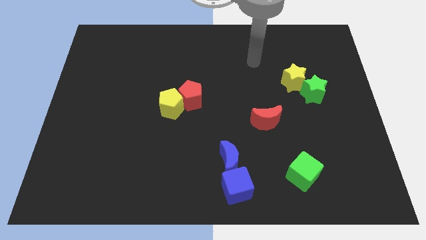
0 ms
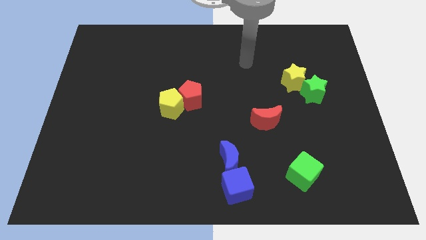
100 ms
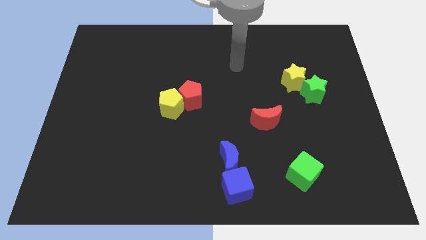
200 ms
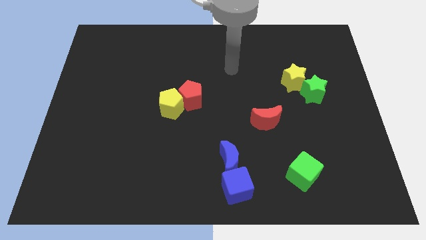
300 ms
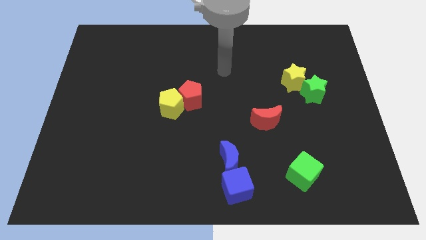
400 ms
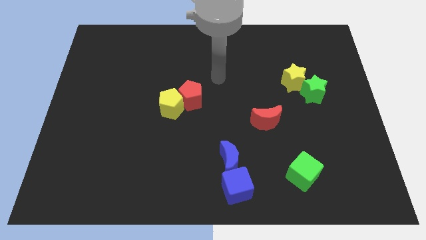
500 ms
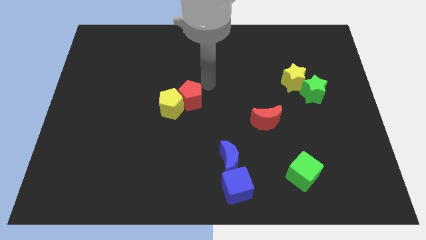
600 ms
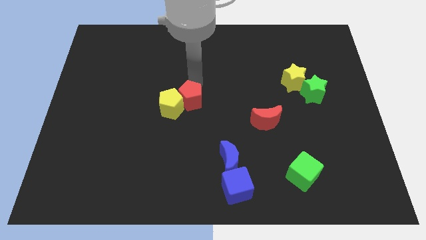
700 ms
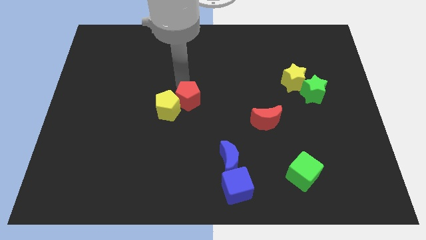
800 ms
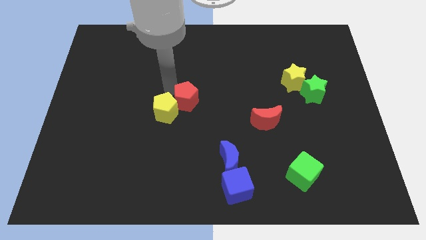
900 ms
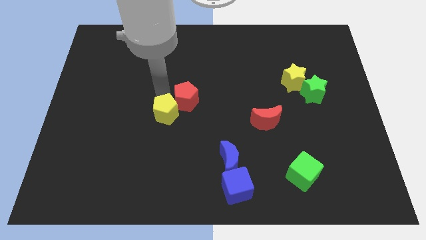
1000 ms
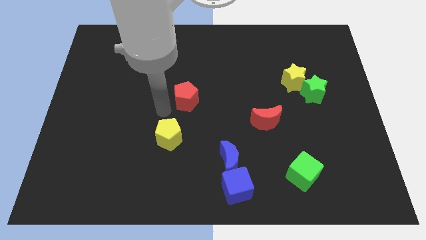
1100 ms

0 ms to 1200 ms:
pull the red pentagon apart from the yellow pentagon

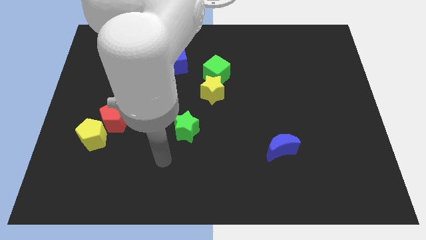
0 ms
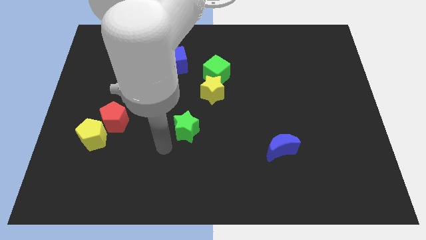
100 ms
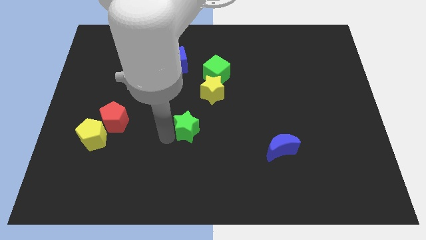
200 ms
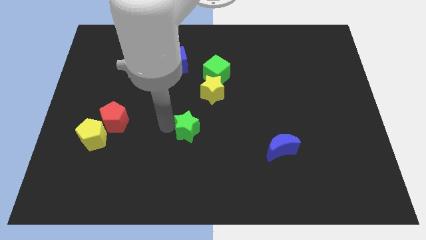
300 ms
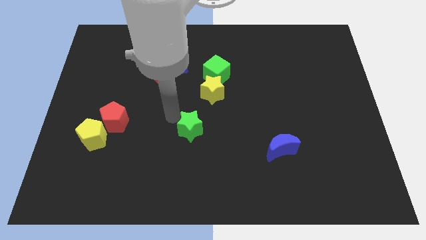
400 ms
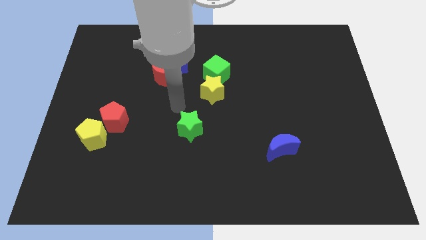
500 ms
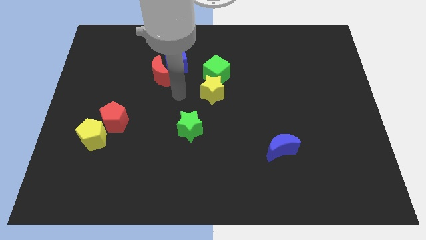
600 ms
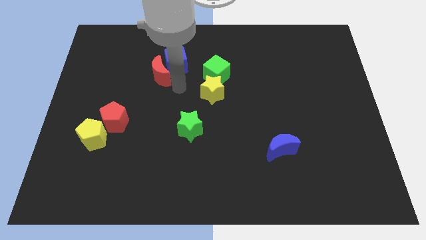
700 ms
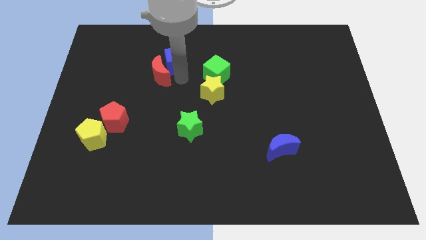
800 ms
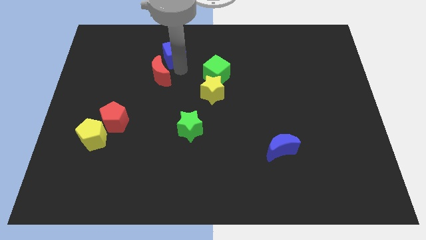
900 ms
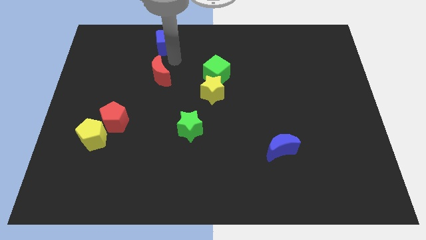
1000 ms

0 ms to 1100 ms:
pull the red moon apart from the blue cube

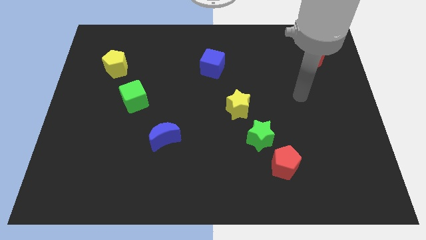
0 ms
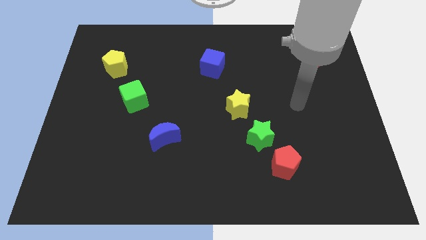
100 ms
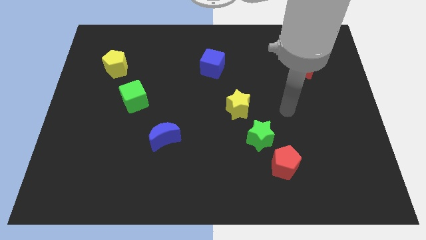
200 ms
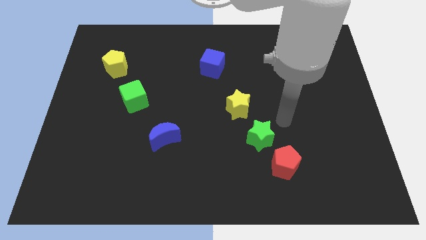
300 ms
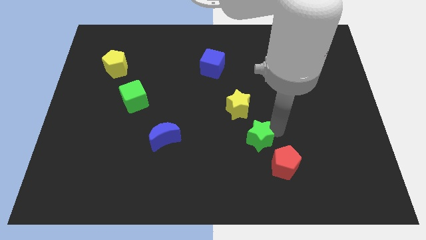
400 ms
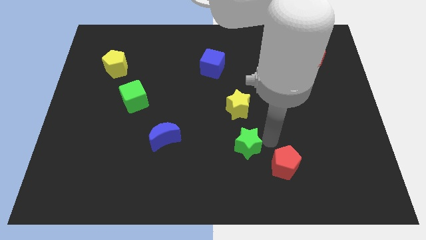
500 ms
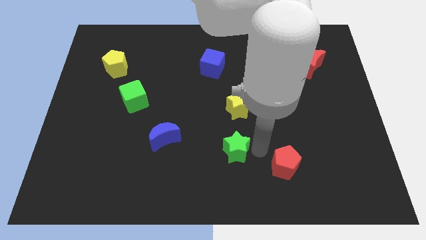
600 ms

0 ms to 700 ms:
separate the red pentagon from the green star

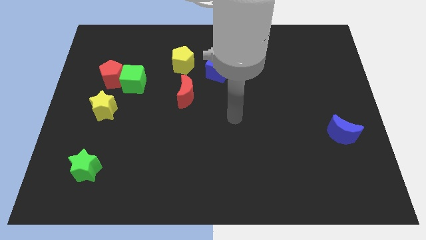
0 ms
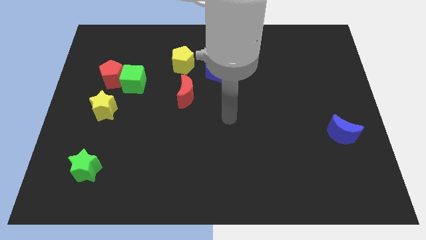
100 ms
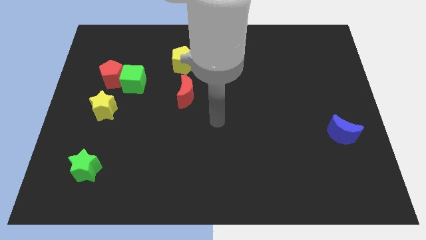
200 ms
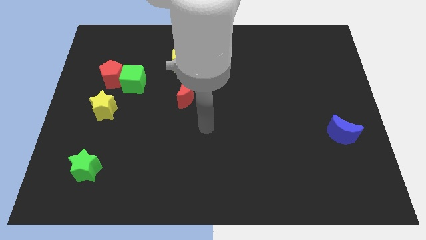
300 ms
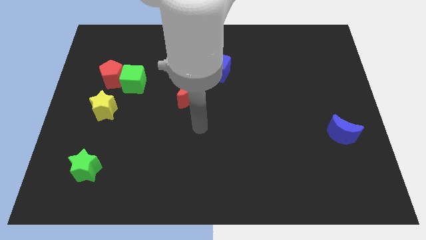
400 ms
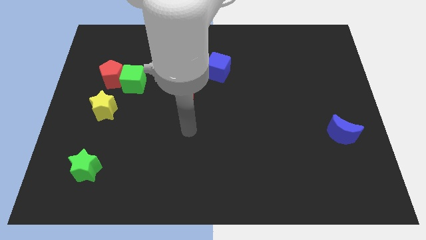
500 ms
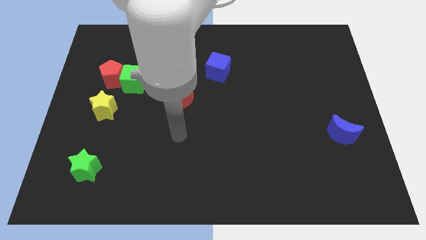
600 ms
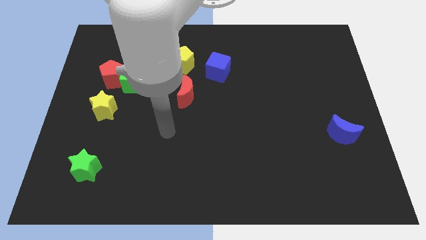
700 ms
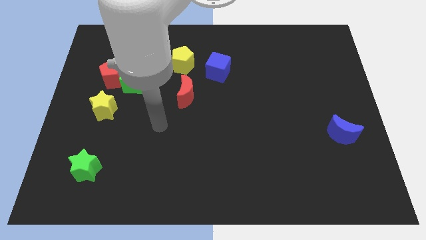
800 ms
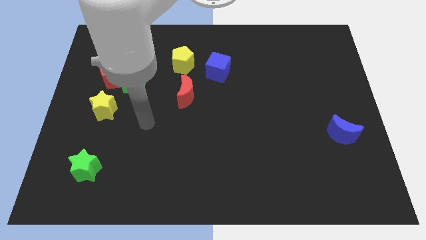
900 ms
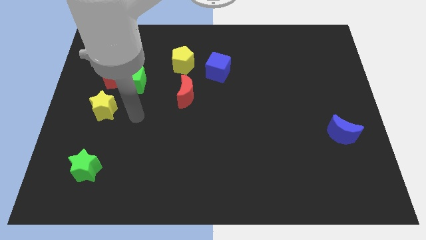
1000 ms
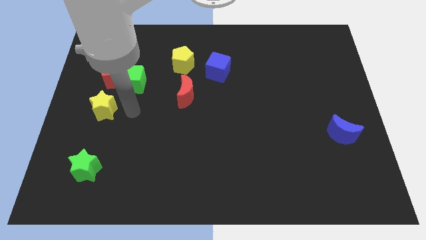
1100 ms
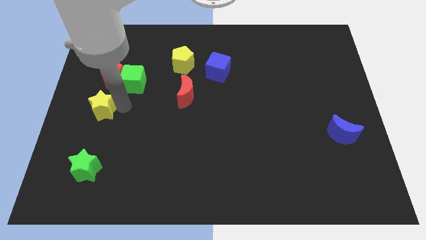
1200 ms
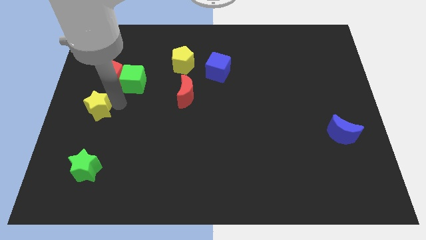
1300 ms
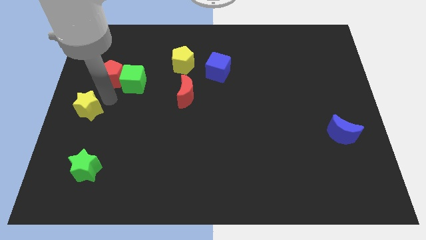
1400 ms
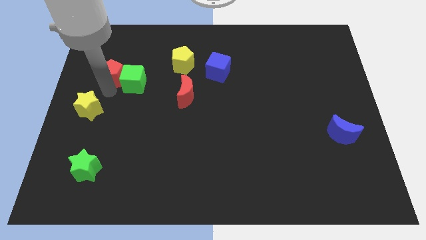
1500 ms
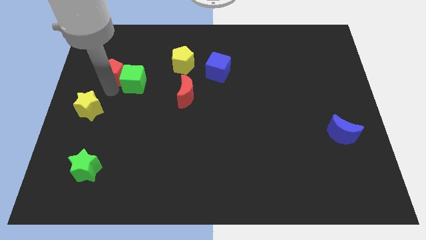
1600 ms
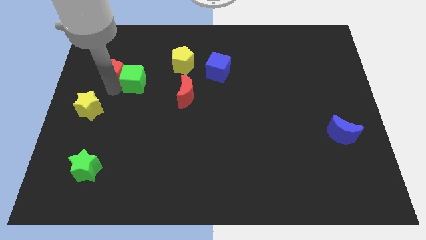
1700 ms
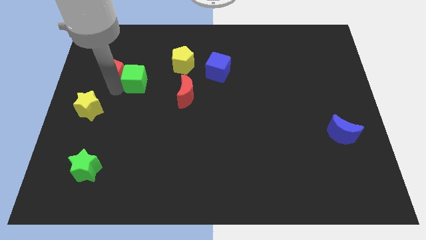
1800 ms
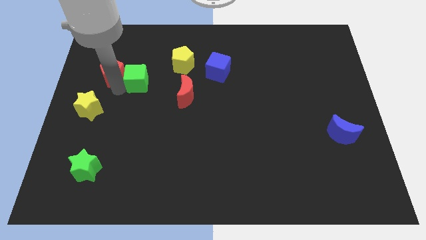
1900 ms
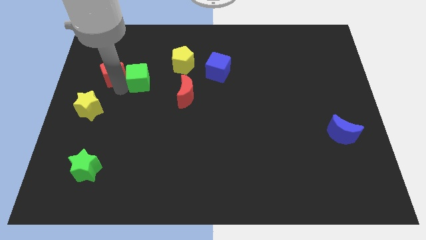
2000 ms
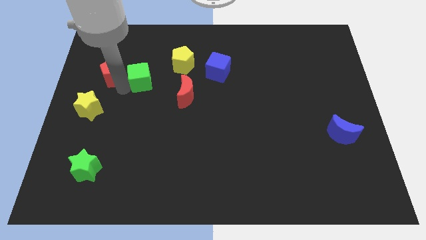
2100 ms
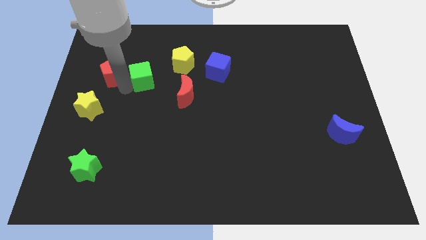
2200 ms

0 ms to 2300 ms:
move the green cube away from the red pentagon and yellow star

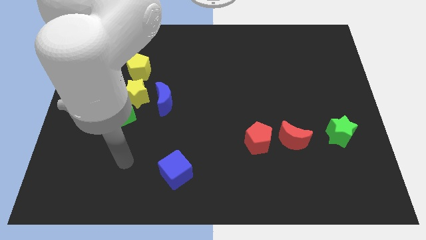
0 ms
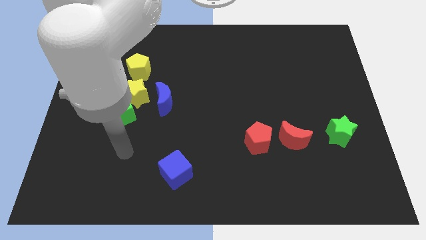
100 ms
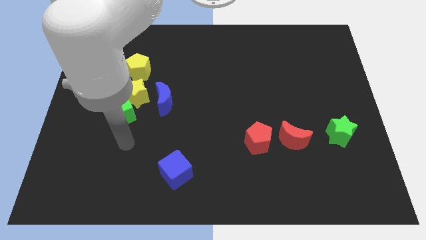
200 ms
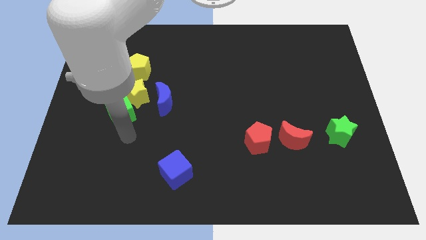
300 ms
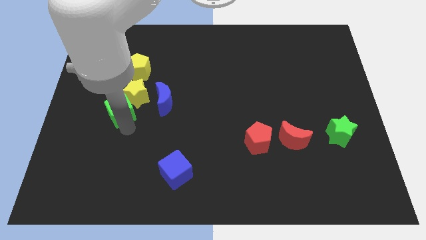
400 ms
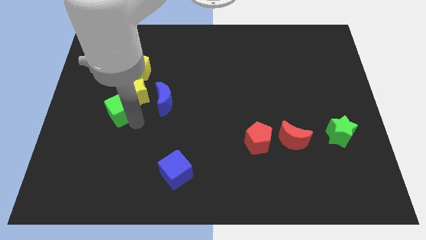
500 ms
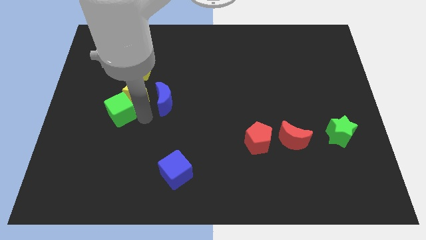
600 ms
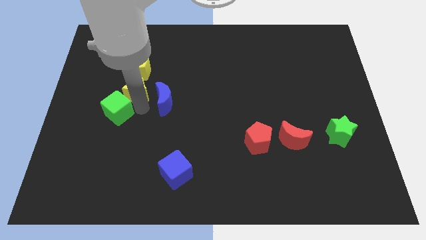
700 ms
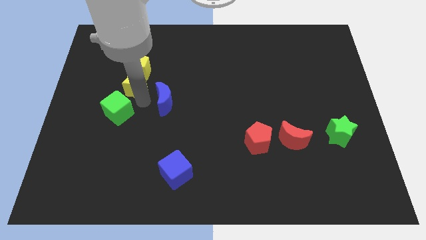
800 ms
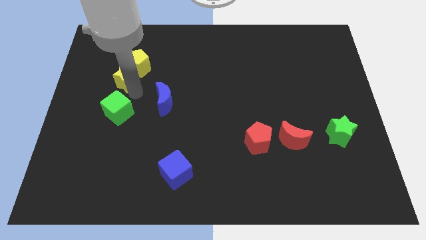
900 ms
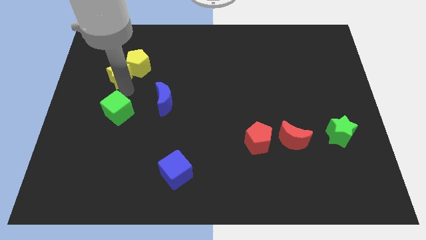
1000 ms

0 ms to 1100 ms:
pull the green cube apart from the yellow star

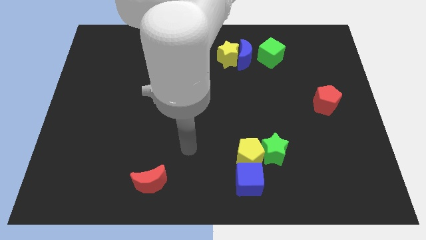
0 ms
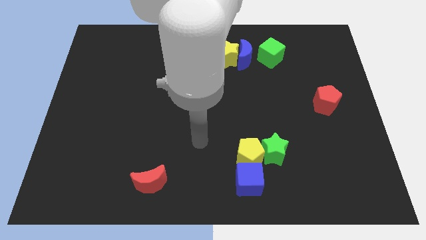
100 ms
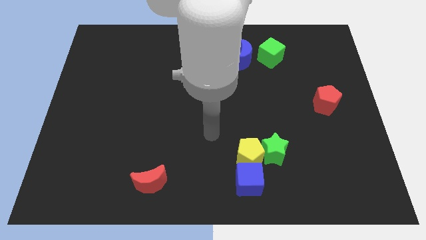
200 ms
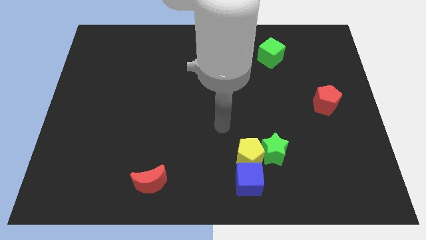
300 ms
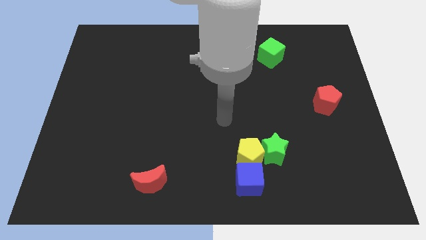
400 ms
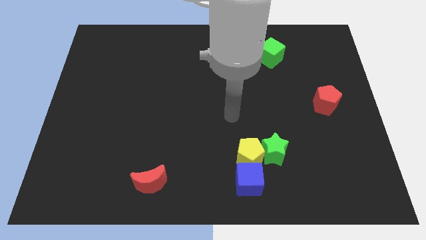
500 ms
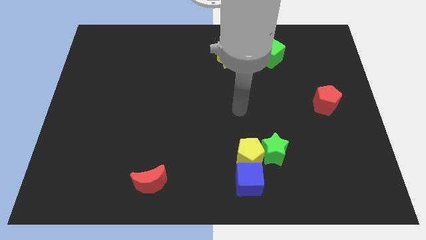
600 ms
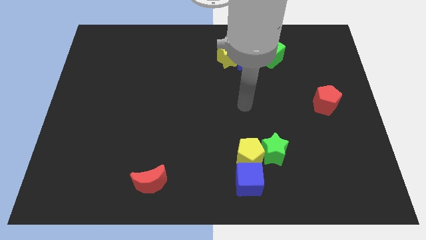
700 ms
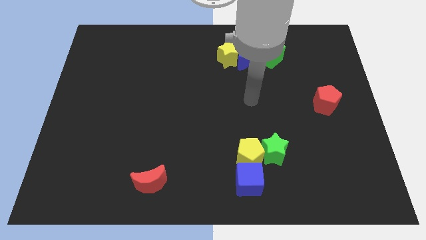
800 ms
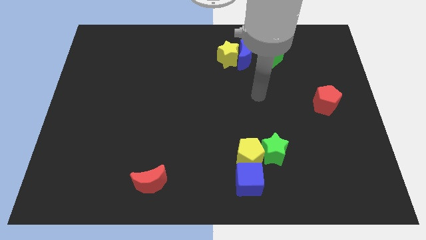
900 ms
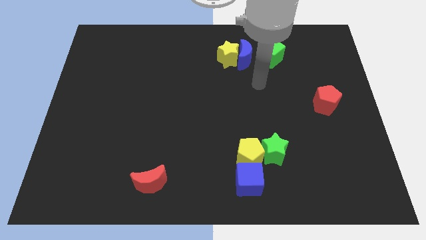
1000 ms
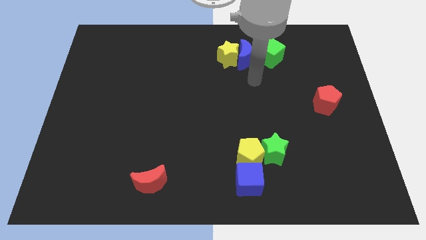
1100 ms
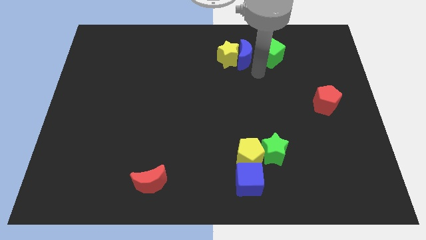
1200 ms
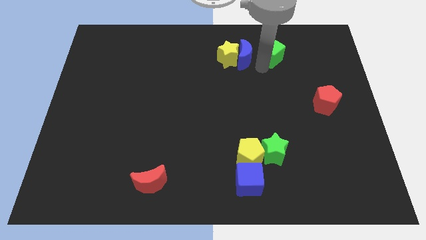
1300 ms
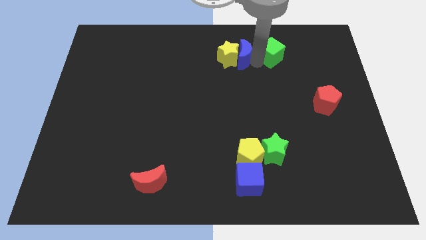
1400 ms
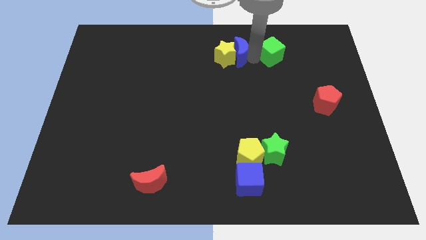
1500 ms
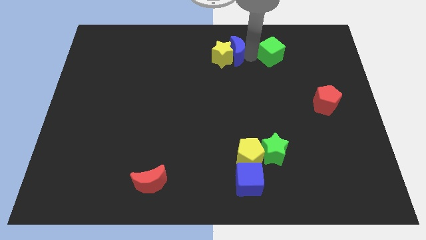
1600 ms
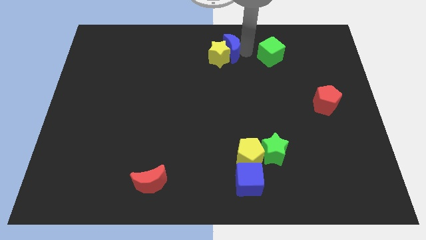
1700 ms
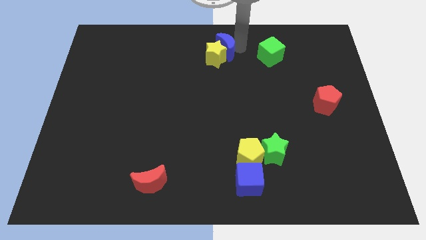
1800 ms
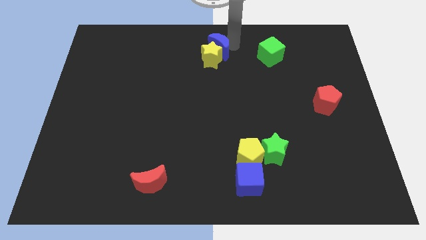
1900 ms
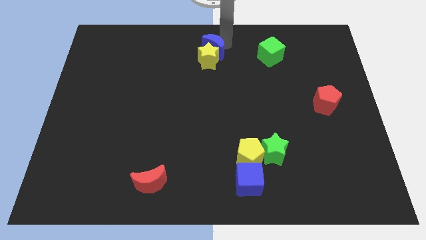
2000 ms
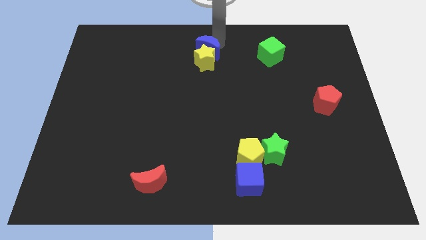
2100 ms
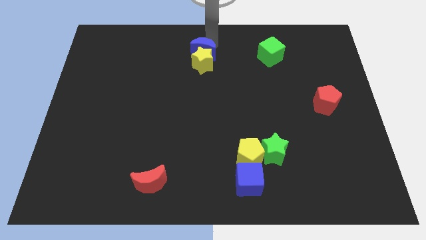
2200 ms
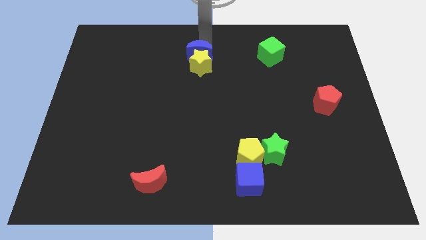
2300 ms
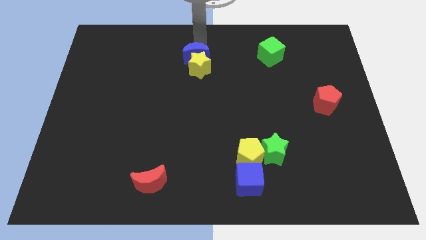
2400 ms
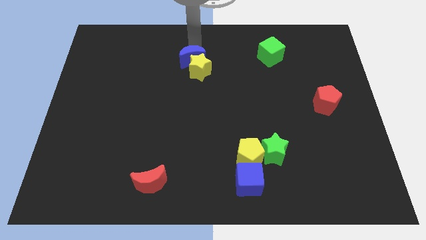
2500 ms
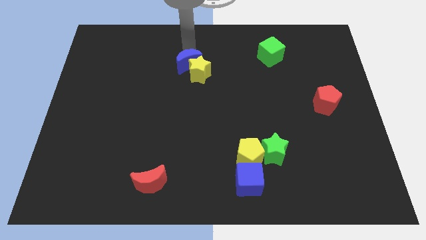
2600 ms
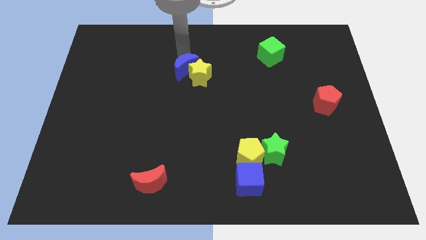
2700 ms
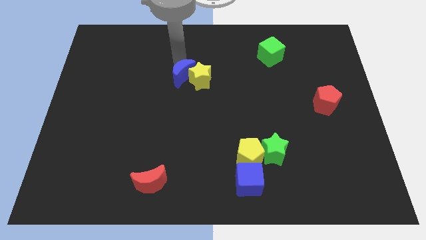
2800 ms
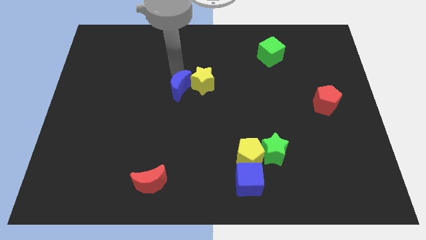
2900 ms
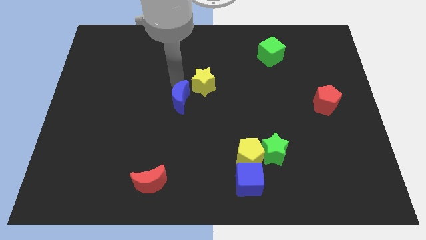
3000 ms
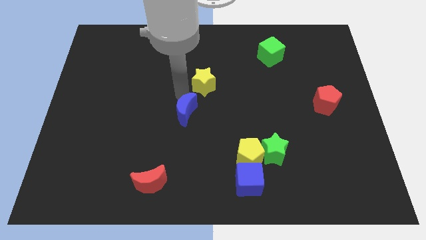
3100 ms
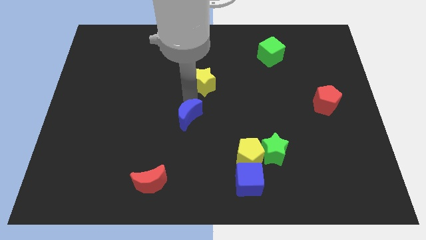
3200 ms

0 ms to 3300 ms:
move the yellow star away from the blue moon
